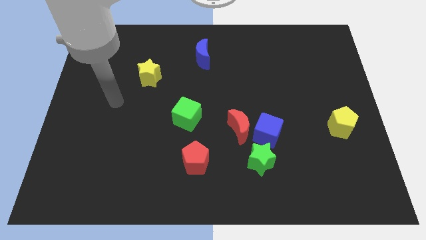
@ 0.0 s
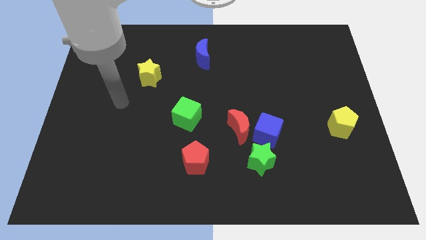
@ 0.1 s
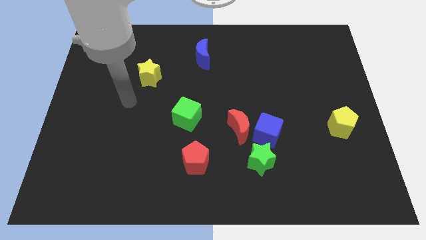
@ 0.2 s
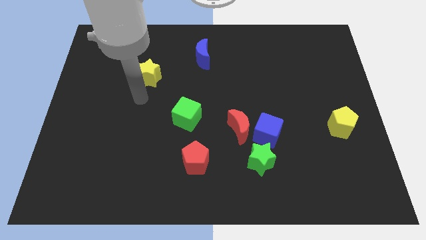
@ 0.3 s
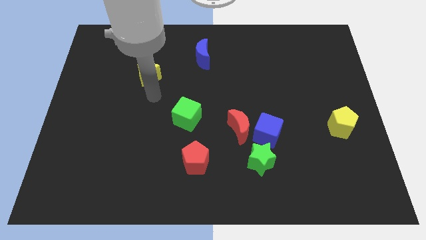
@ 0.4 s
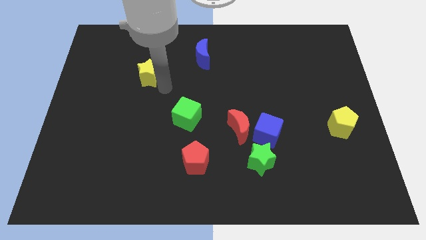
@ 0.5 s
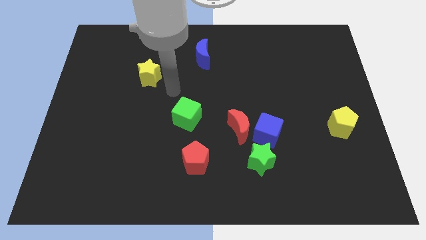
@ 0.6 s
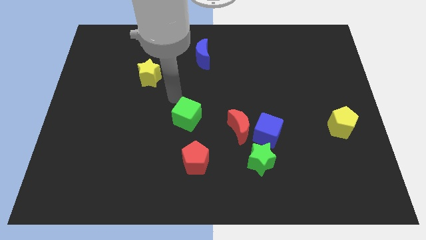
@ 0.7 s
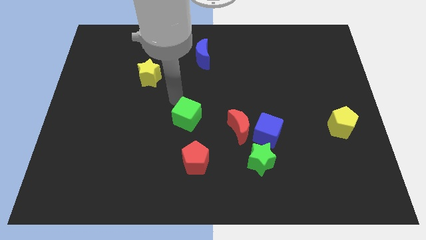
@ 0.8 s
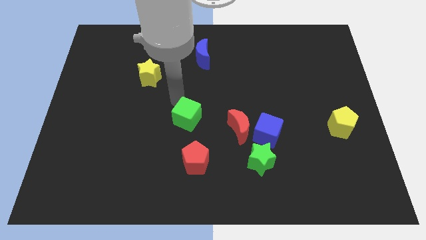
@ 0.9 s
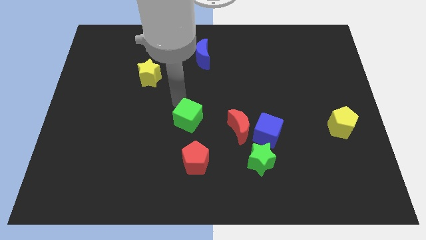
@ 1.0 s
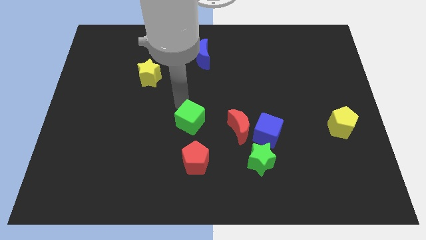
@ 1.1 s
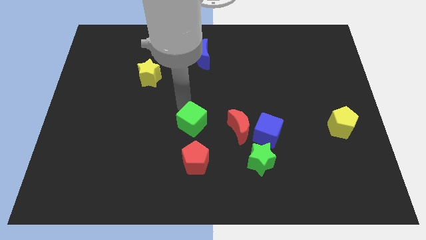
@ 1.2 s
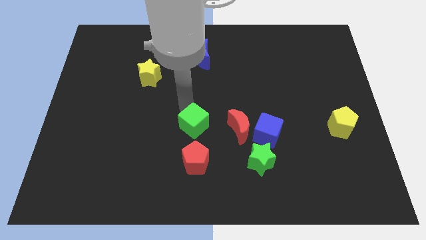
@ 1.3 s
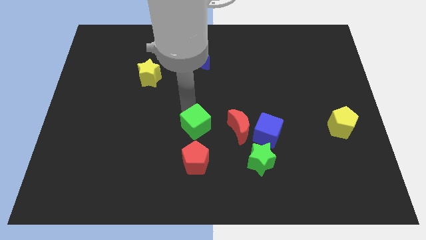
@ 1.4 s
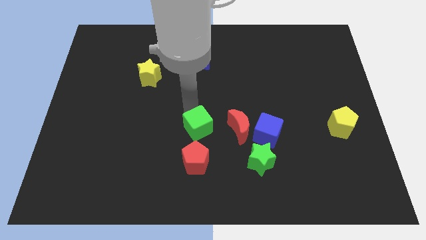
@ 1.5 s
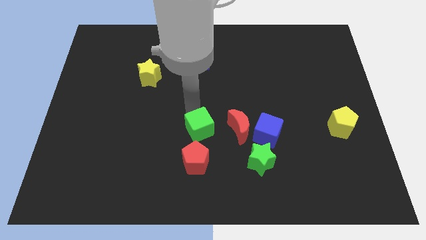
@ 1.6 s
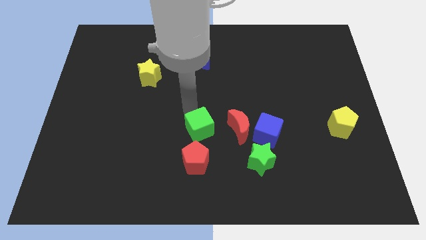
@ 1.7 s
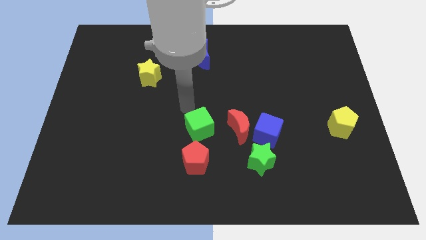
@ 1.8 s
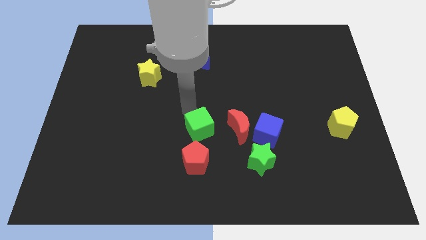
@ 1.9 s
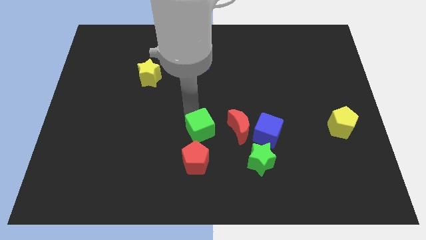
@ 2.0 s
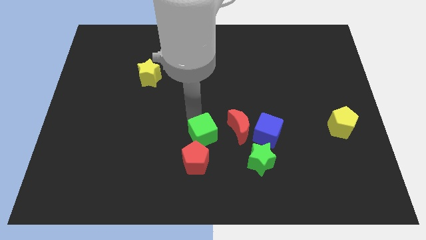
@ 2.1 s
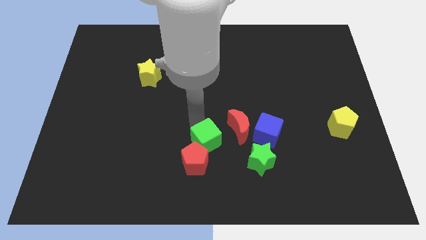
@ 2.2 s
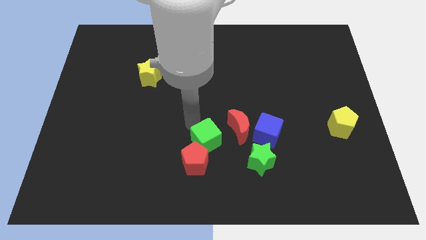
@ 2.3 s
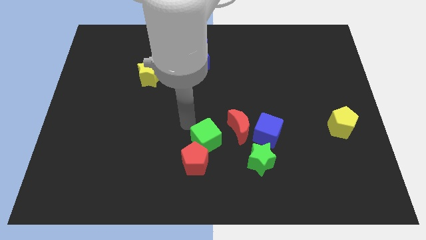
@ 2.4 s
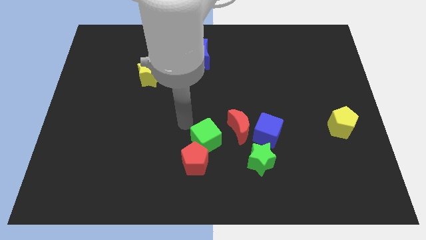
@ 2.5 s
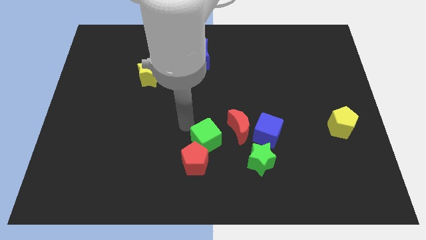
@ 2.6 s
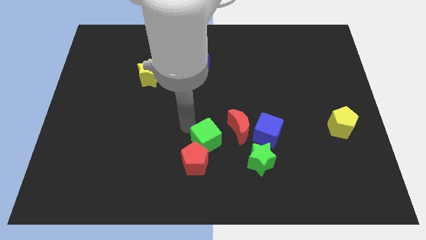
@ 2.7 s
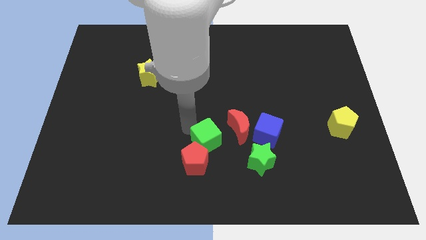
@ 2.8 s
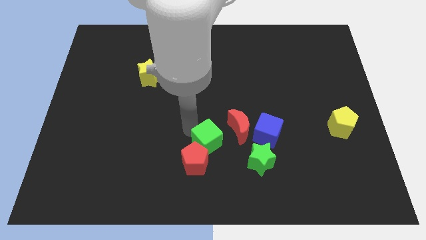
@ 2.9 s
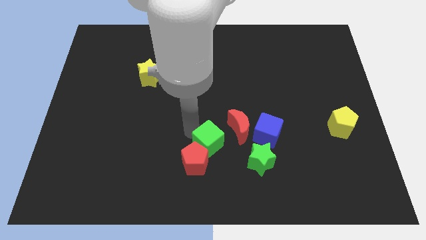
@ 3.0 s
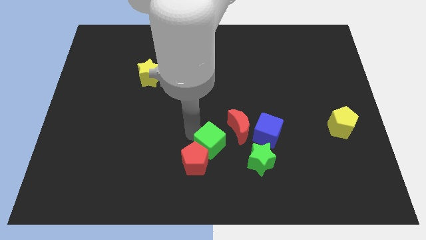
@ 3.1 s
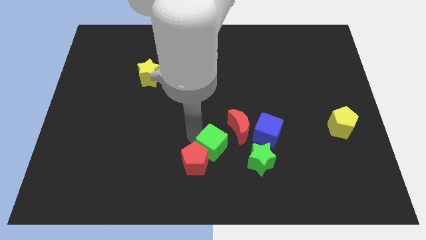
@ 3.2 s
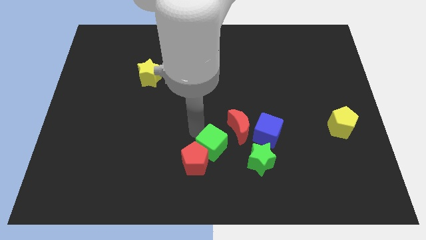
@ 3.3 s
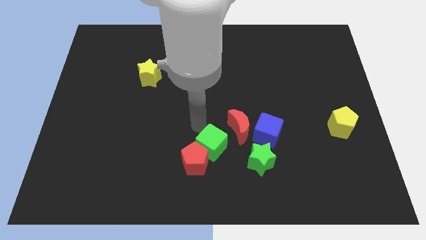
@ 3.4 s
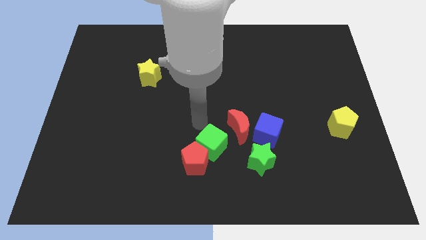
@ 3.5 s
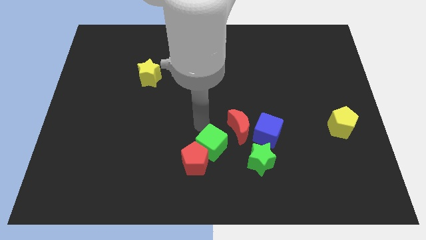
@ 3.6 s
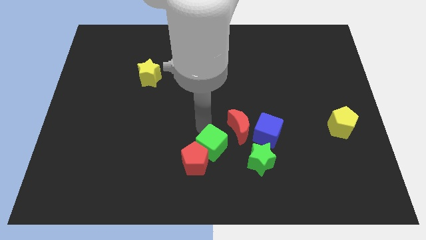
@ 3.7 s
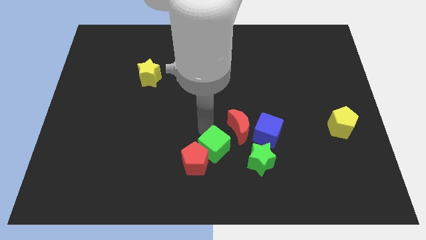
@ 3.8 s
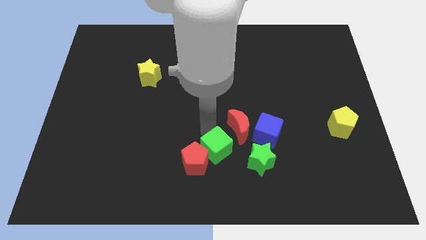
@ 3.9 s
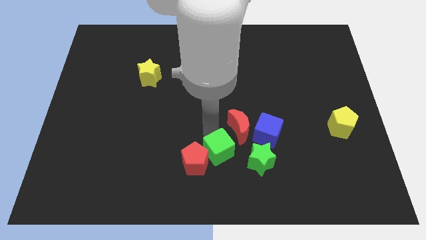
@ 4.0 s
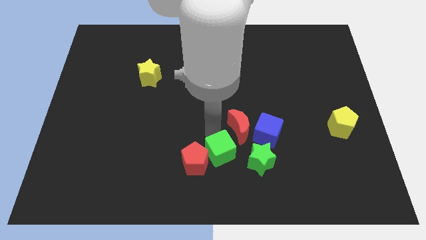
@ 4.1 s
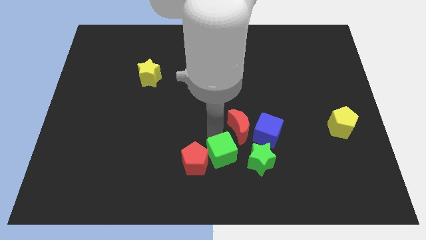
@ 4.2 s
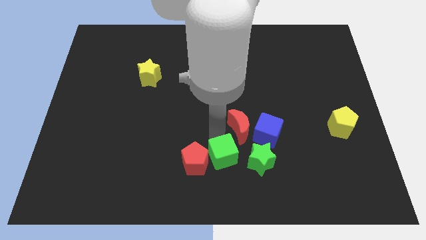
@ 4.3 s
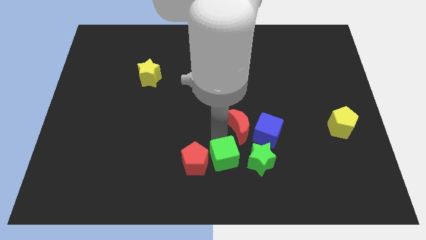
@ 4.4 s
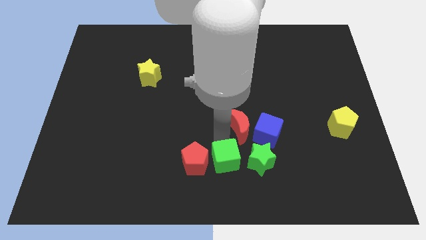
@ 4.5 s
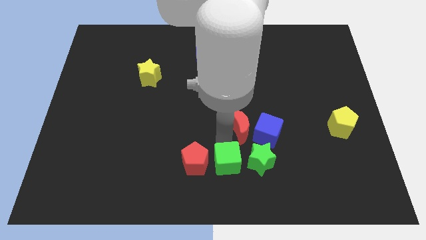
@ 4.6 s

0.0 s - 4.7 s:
slide the green cube diagonally down and to the right of the red pentagon

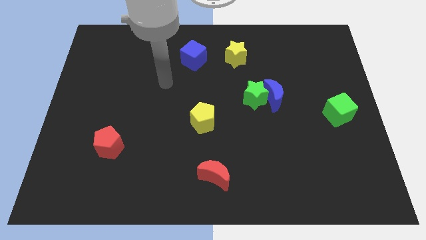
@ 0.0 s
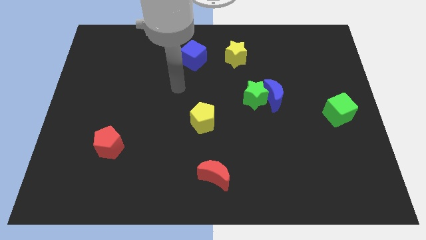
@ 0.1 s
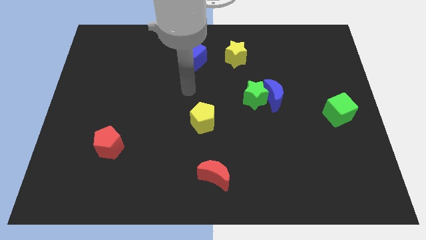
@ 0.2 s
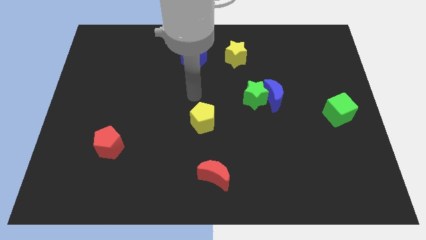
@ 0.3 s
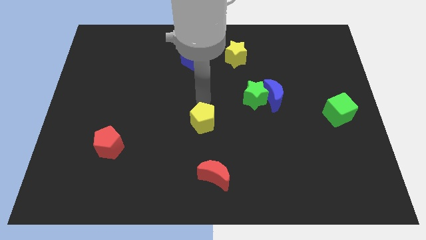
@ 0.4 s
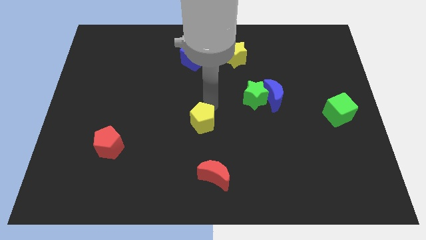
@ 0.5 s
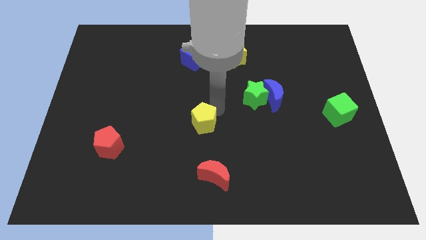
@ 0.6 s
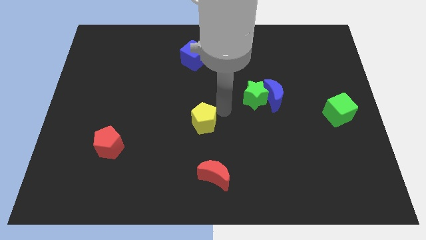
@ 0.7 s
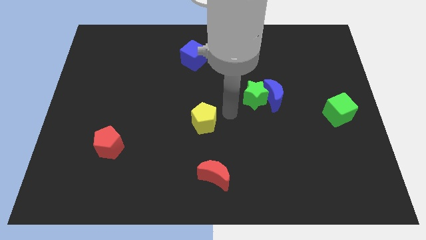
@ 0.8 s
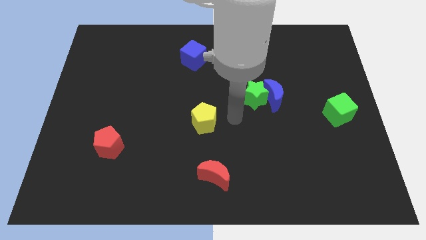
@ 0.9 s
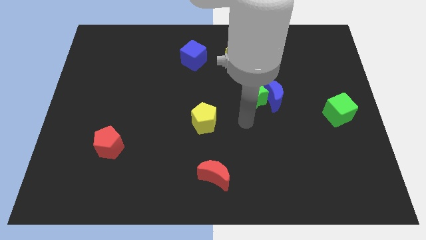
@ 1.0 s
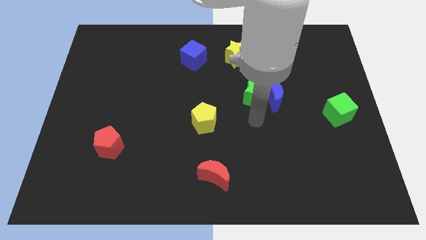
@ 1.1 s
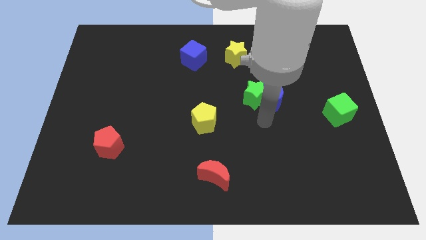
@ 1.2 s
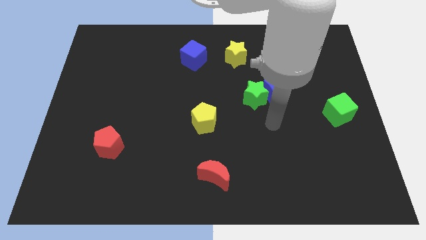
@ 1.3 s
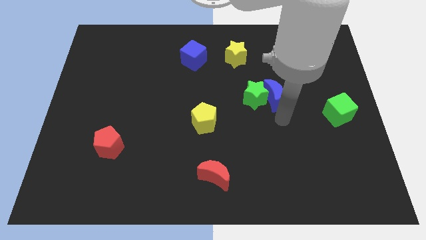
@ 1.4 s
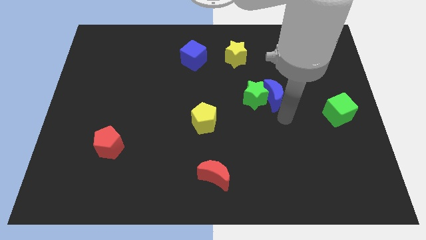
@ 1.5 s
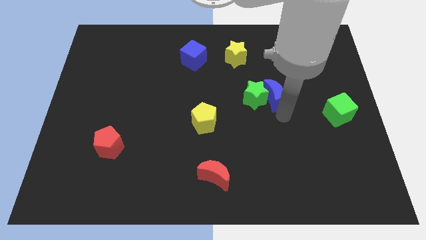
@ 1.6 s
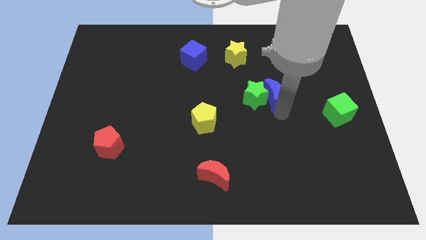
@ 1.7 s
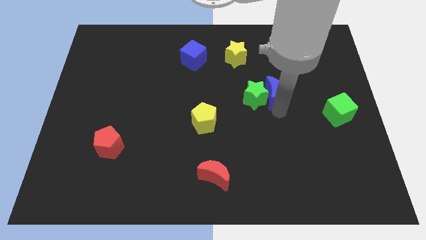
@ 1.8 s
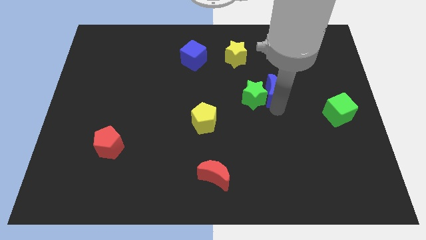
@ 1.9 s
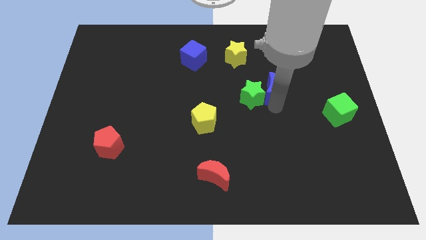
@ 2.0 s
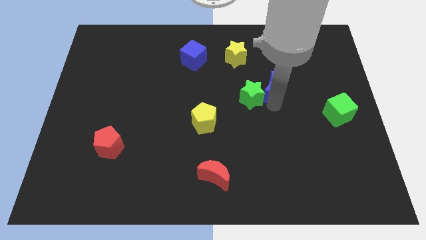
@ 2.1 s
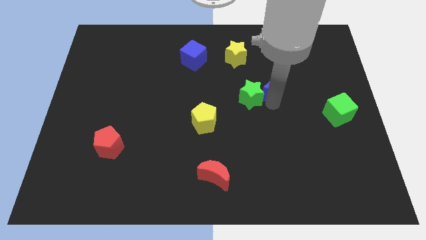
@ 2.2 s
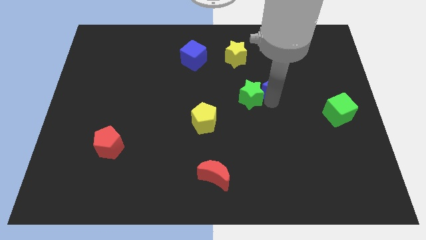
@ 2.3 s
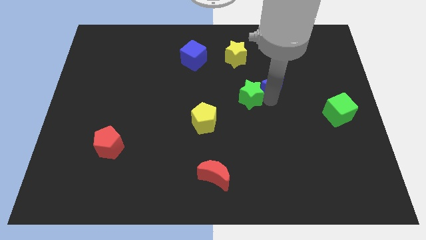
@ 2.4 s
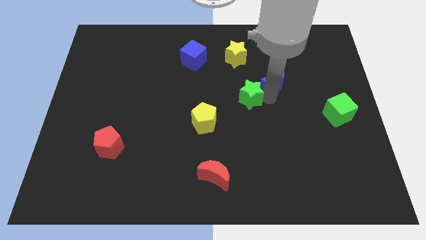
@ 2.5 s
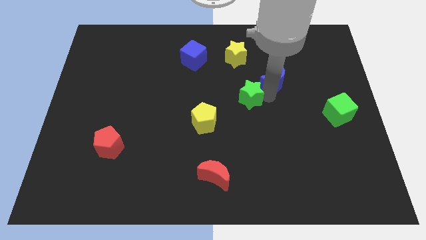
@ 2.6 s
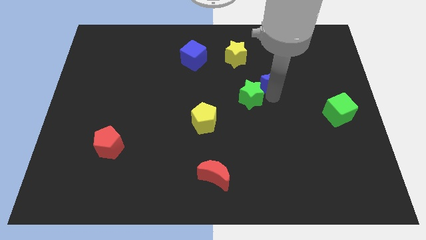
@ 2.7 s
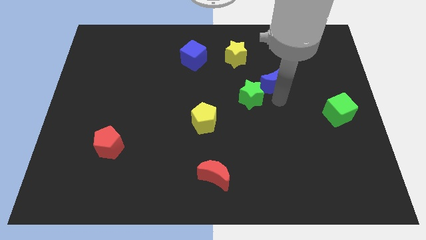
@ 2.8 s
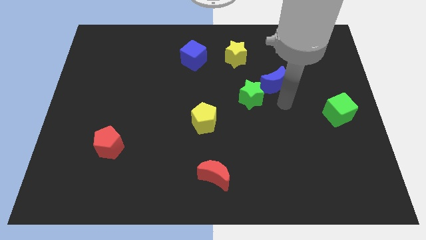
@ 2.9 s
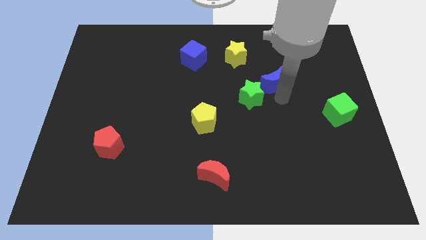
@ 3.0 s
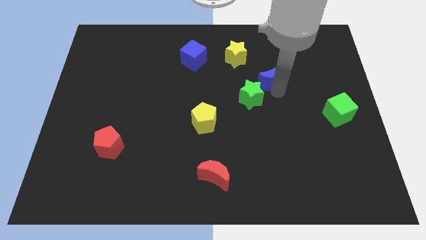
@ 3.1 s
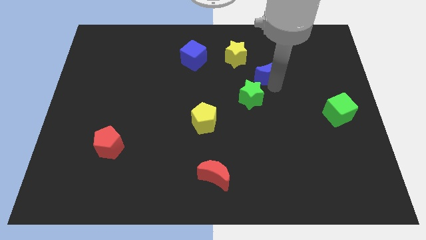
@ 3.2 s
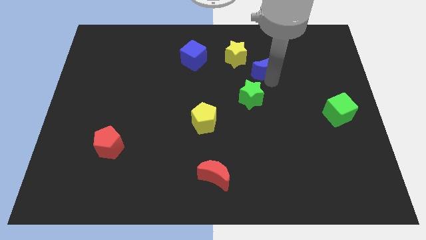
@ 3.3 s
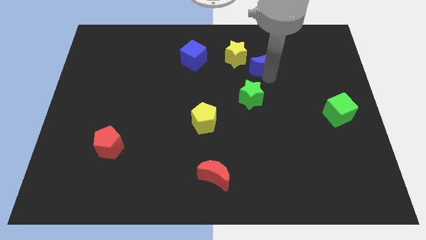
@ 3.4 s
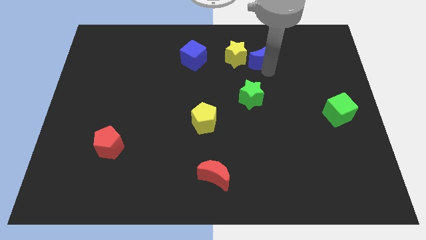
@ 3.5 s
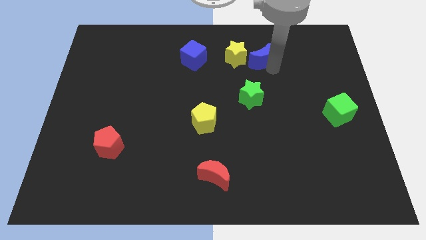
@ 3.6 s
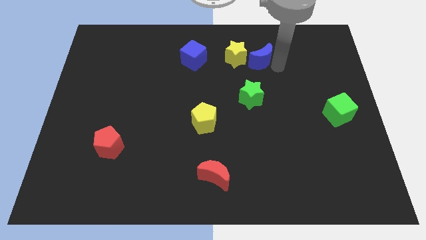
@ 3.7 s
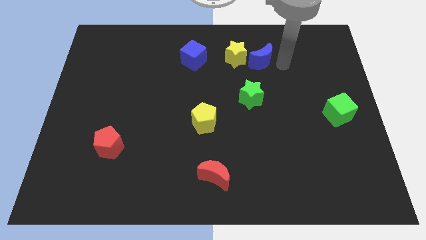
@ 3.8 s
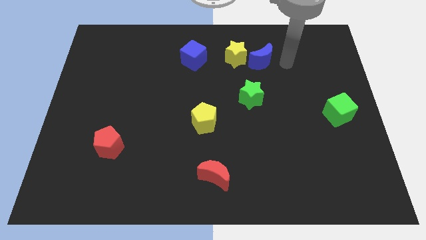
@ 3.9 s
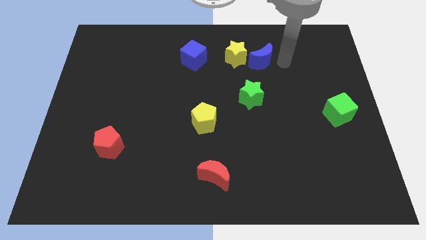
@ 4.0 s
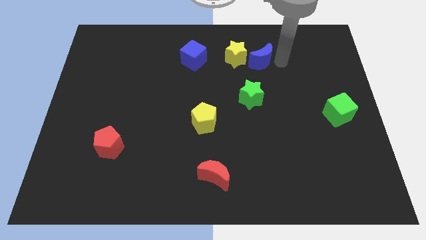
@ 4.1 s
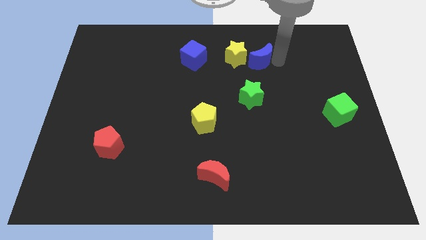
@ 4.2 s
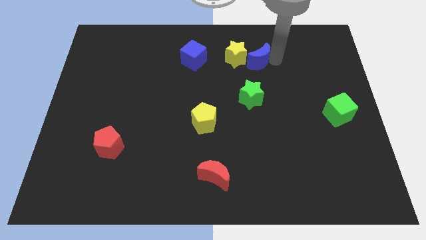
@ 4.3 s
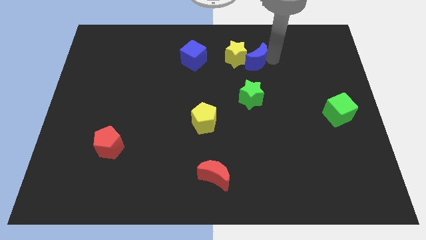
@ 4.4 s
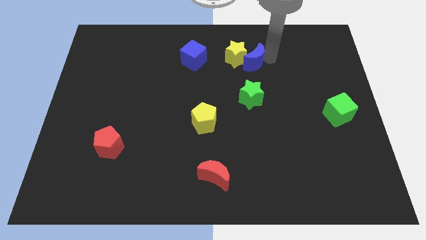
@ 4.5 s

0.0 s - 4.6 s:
push the blue moon to the right side of the blue cube
